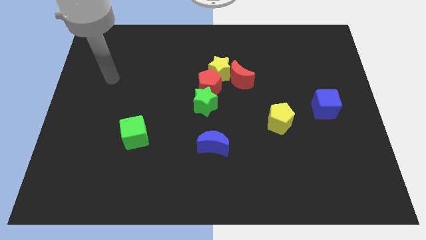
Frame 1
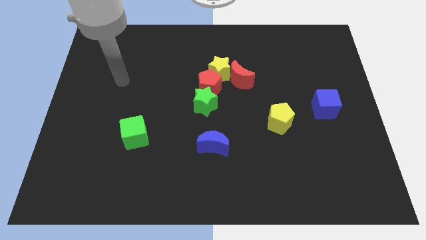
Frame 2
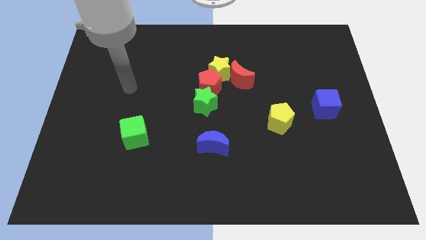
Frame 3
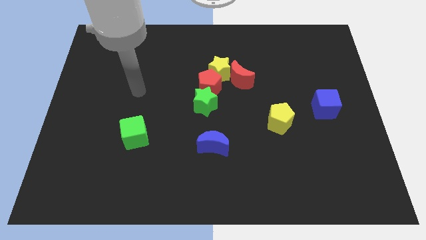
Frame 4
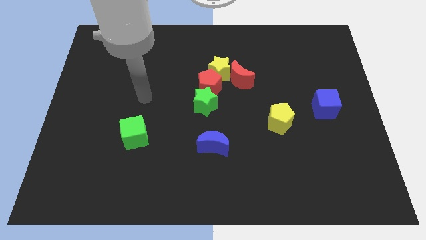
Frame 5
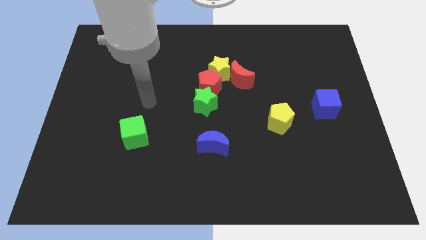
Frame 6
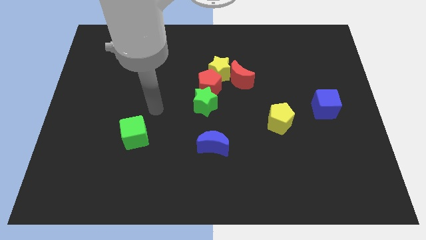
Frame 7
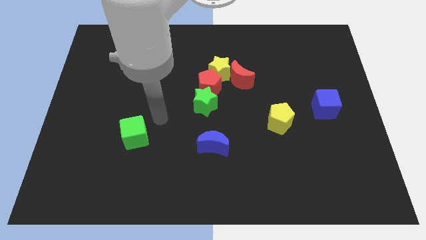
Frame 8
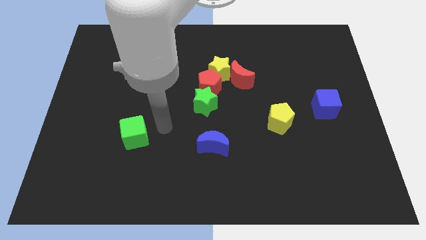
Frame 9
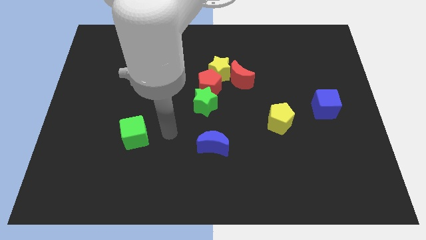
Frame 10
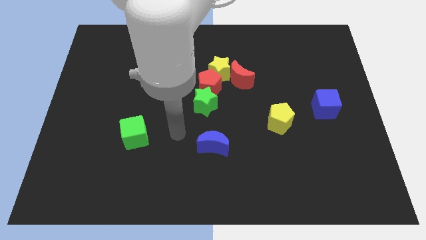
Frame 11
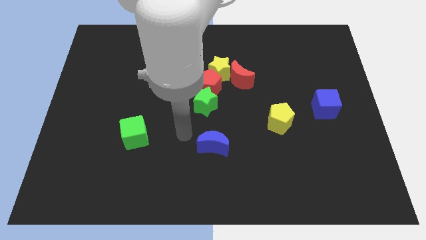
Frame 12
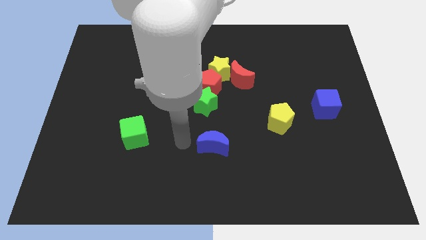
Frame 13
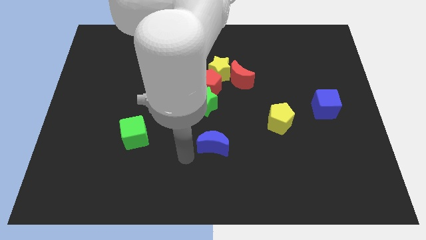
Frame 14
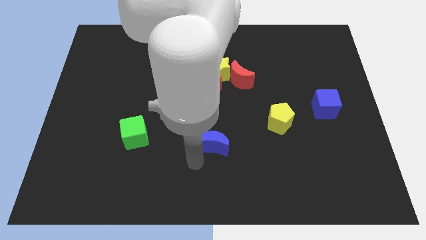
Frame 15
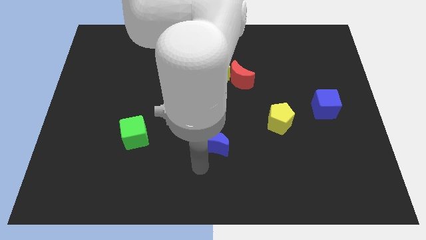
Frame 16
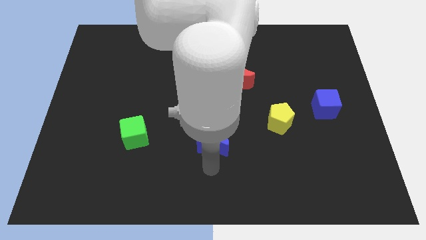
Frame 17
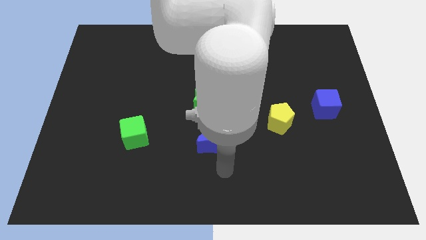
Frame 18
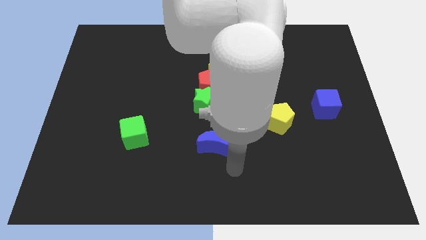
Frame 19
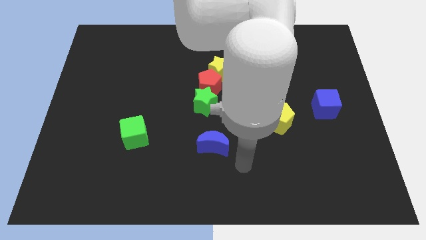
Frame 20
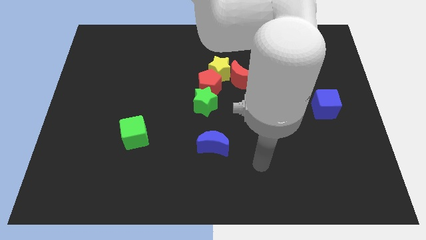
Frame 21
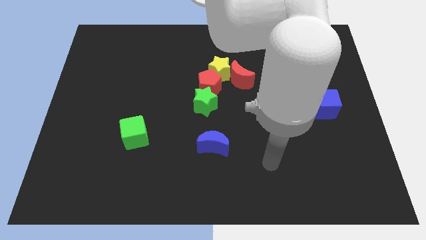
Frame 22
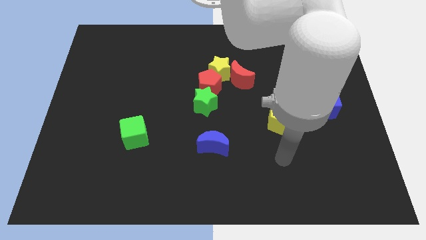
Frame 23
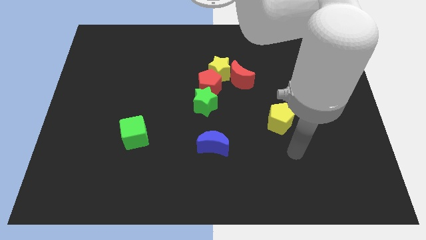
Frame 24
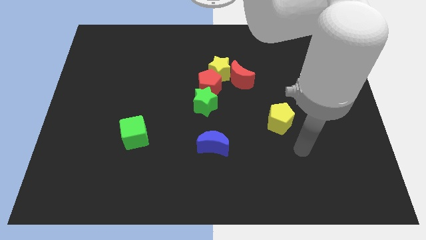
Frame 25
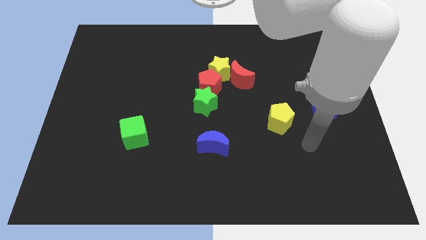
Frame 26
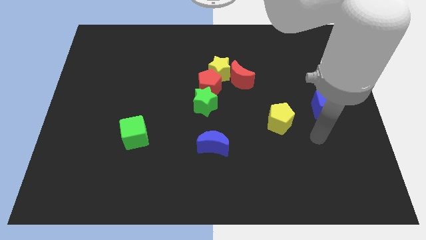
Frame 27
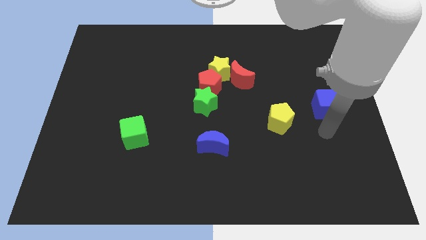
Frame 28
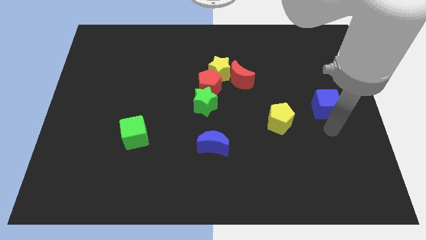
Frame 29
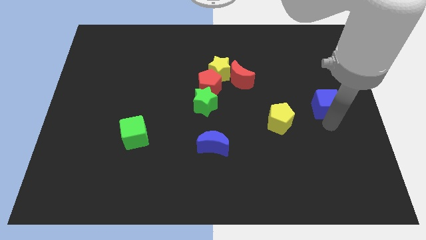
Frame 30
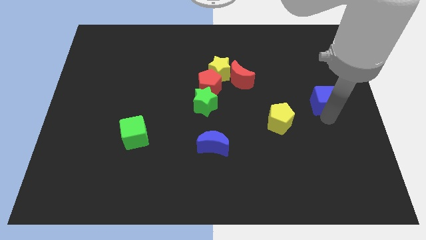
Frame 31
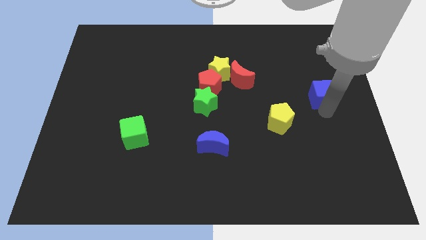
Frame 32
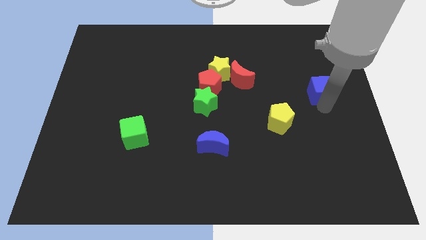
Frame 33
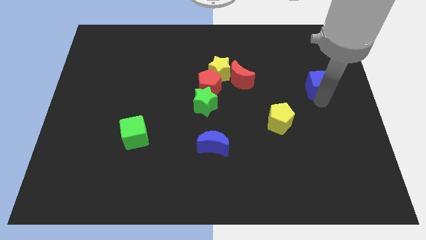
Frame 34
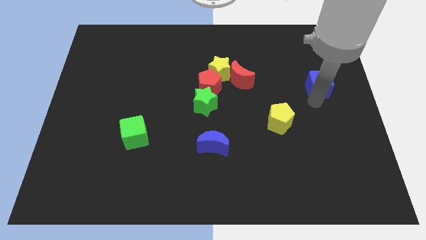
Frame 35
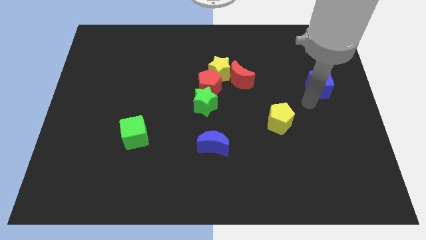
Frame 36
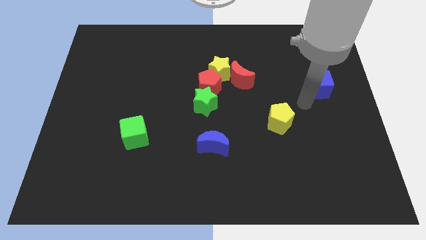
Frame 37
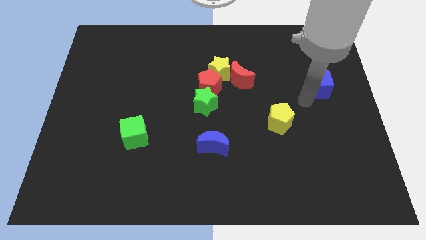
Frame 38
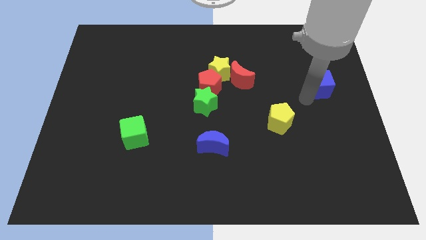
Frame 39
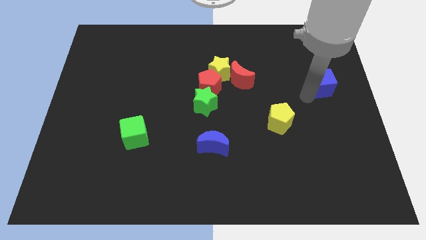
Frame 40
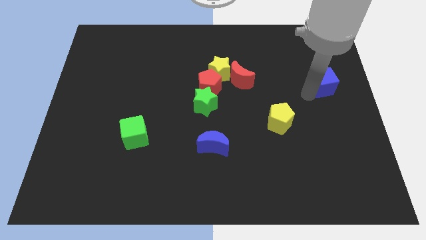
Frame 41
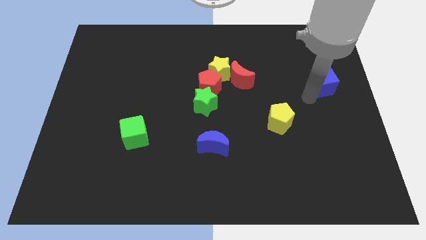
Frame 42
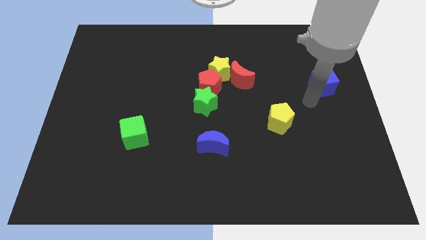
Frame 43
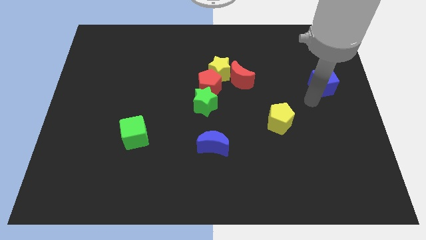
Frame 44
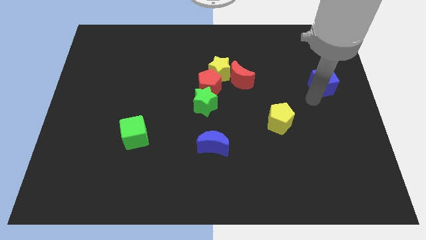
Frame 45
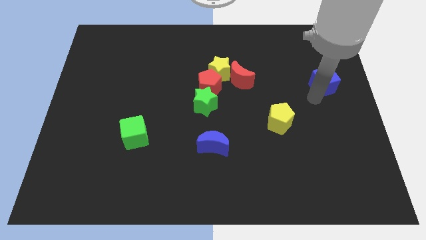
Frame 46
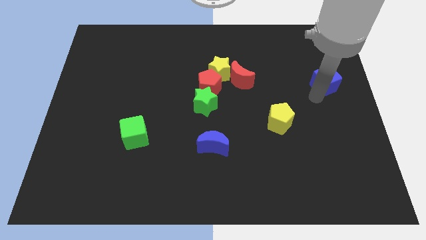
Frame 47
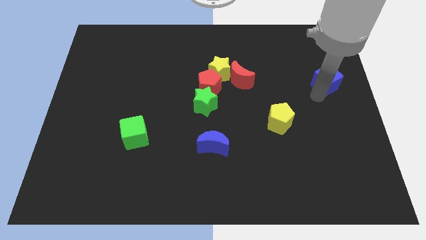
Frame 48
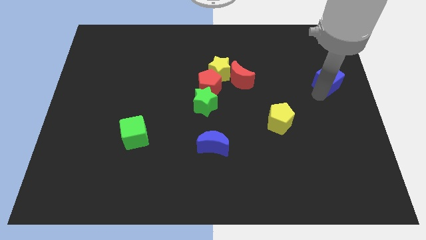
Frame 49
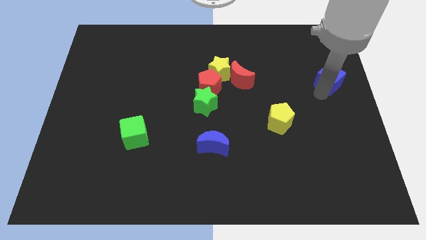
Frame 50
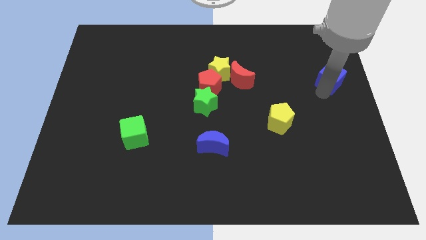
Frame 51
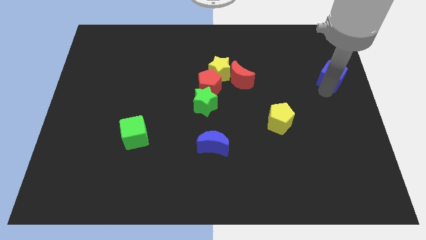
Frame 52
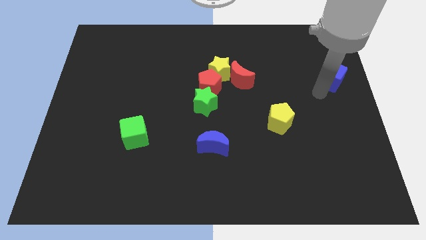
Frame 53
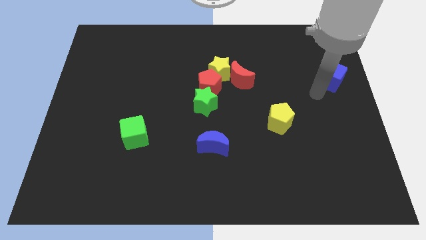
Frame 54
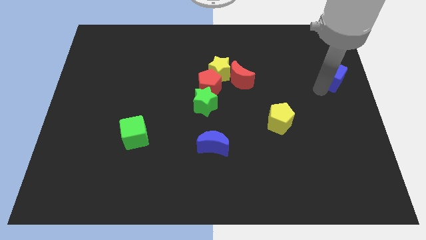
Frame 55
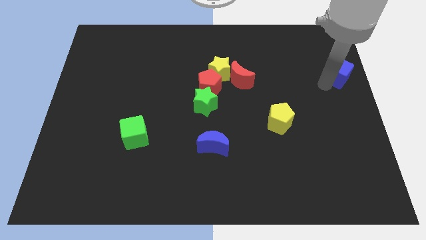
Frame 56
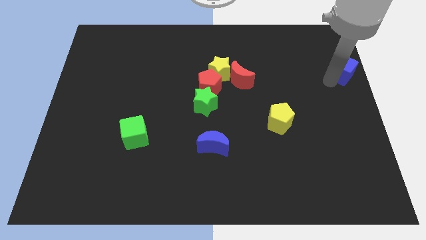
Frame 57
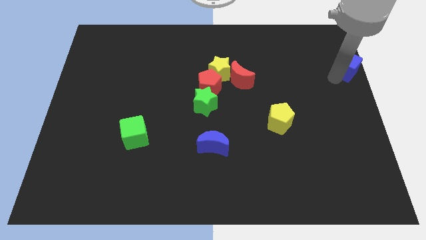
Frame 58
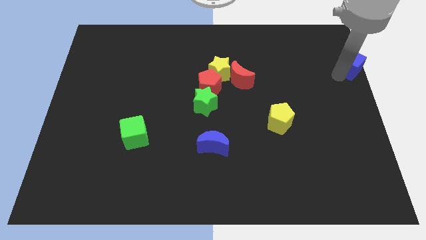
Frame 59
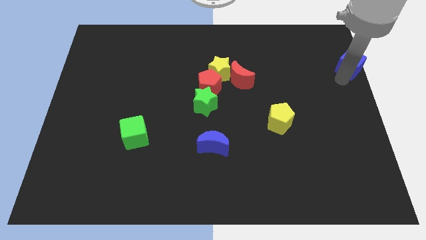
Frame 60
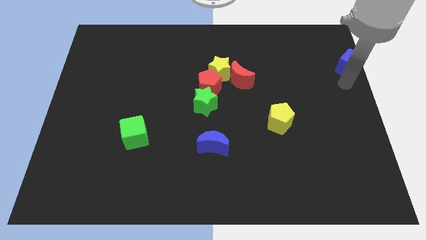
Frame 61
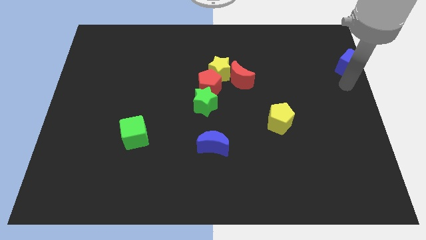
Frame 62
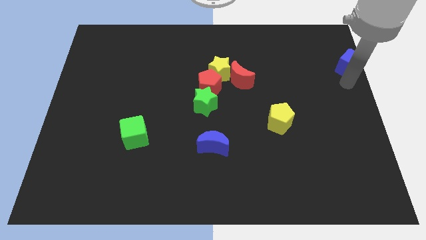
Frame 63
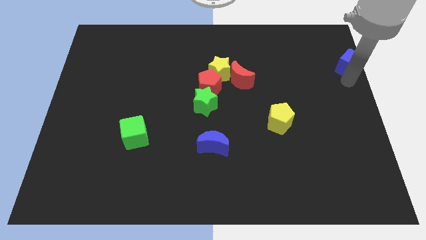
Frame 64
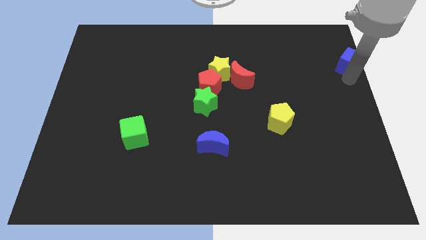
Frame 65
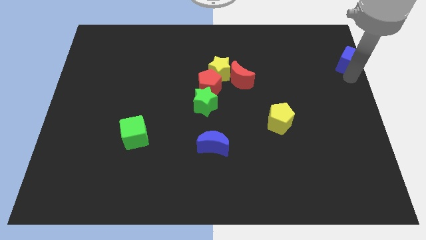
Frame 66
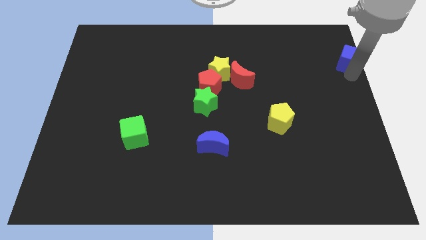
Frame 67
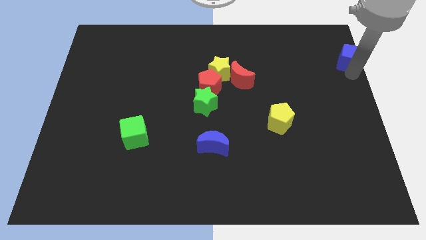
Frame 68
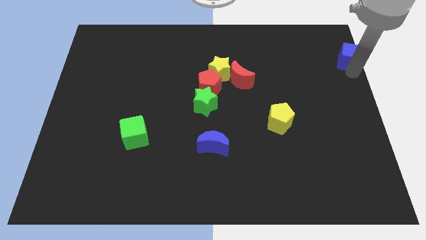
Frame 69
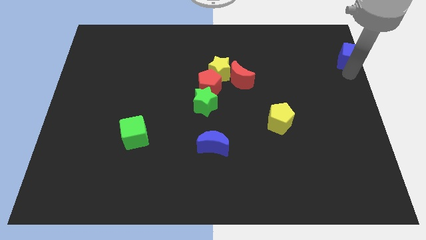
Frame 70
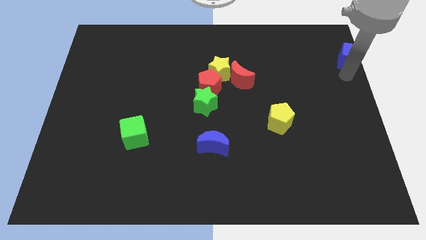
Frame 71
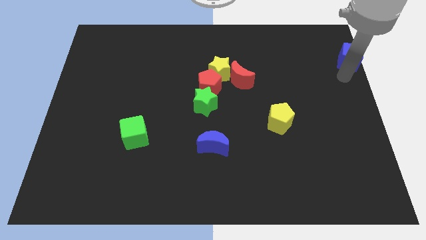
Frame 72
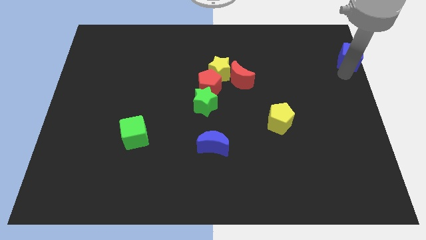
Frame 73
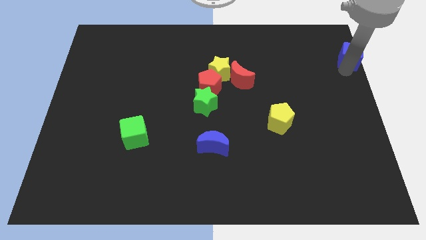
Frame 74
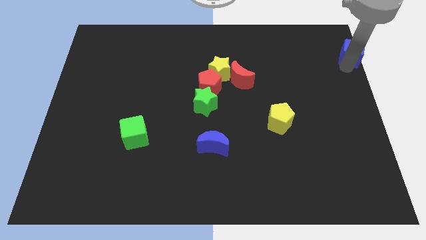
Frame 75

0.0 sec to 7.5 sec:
move the blue cube to the top right
